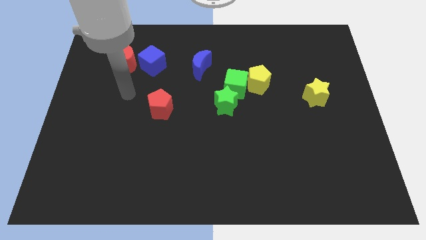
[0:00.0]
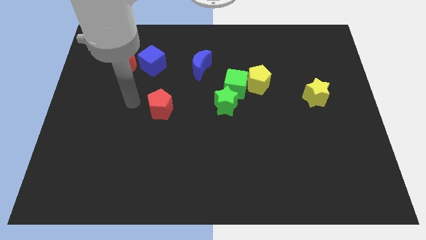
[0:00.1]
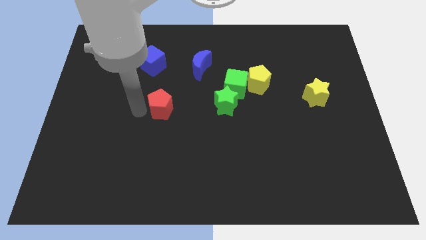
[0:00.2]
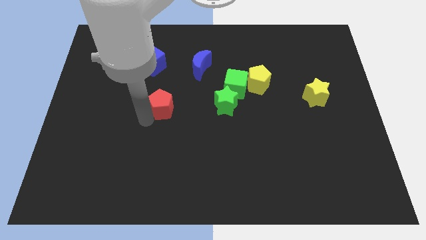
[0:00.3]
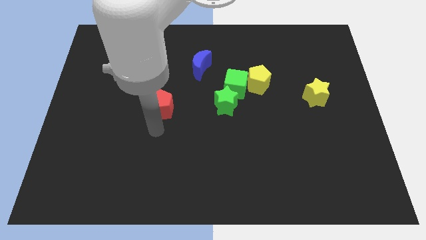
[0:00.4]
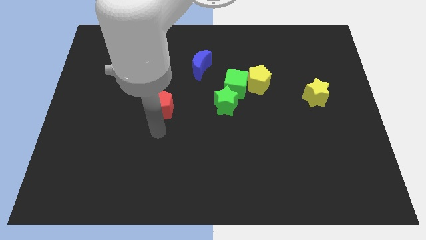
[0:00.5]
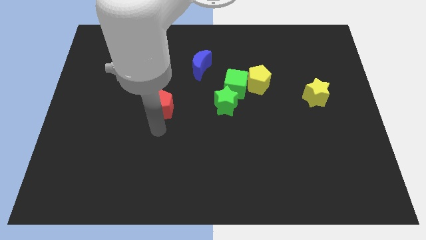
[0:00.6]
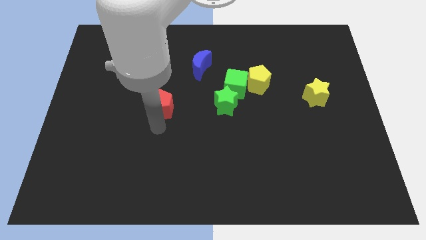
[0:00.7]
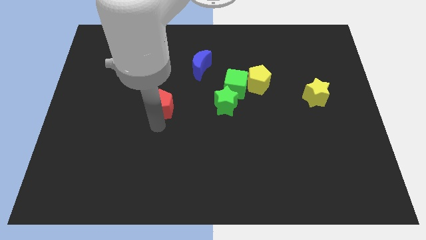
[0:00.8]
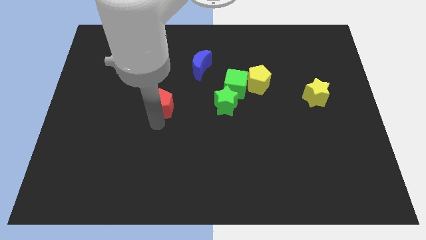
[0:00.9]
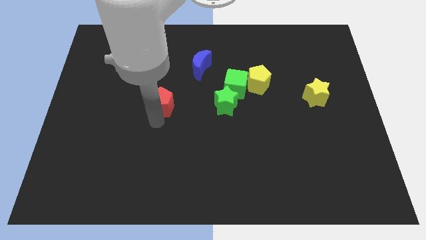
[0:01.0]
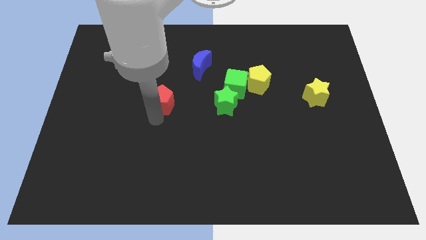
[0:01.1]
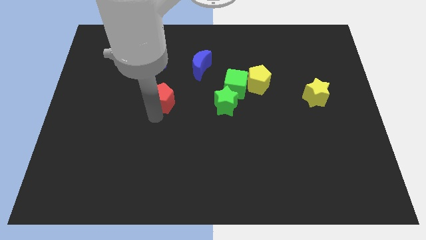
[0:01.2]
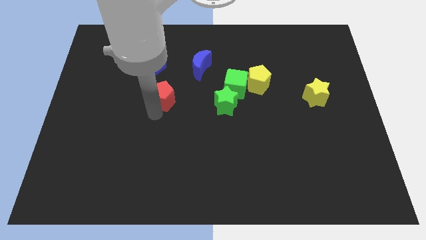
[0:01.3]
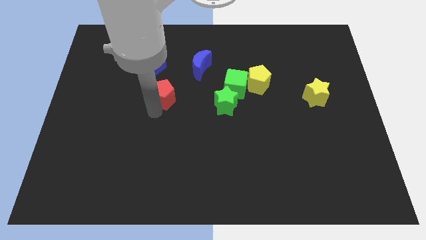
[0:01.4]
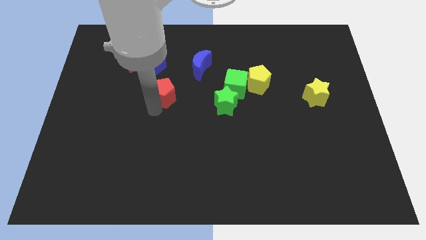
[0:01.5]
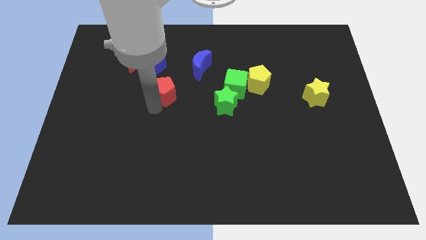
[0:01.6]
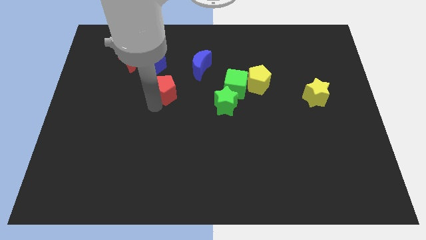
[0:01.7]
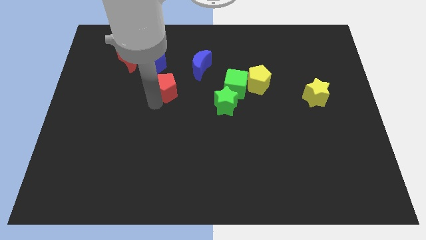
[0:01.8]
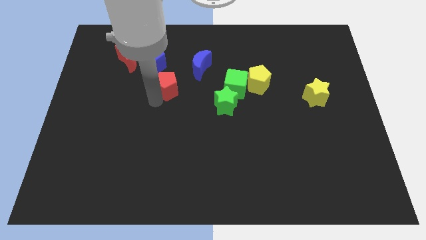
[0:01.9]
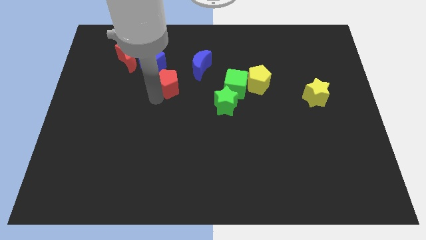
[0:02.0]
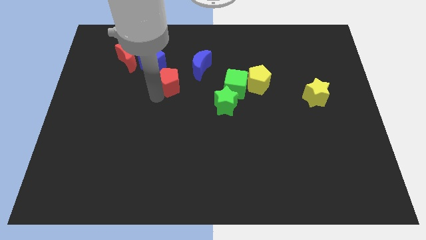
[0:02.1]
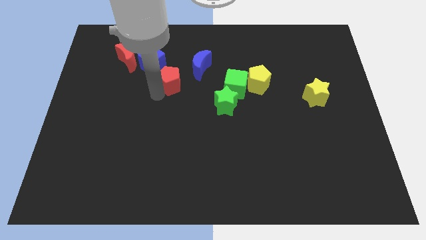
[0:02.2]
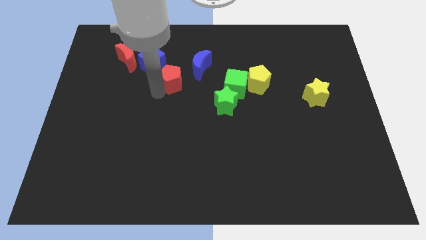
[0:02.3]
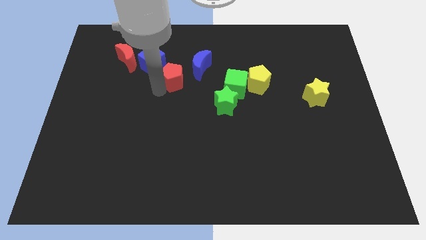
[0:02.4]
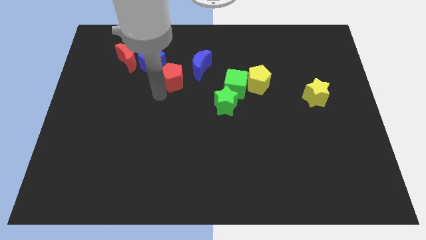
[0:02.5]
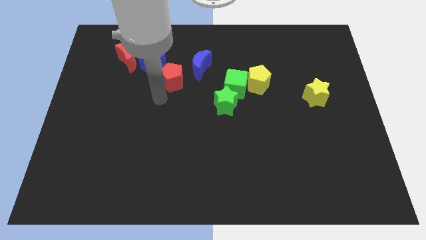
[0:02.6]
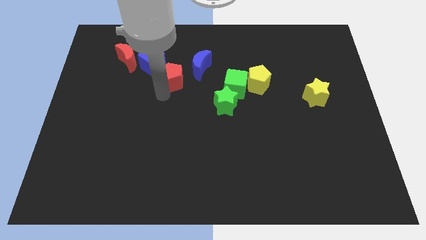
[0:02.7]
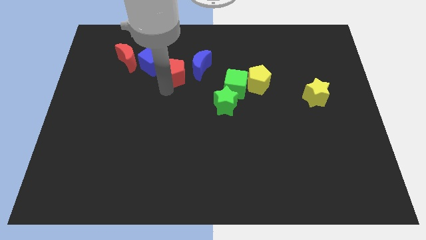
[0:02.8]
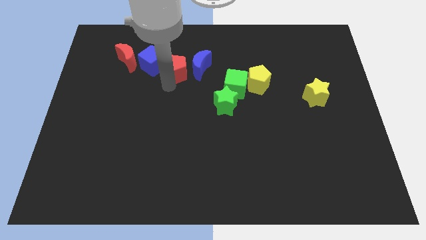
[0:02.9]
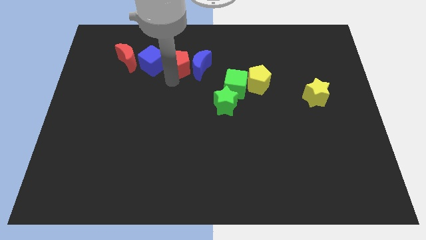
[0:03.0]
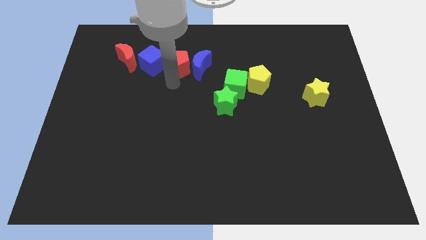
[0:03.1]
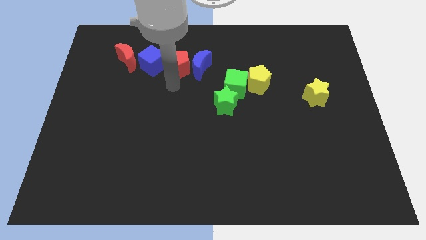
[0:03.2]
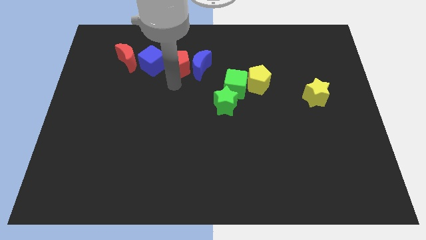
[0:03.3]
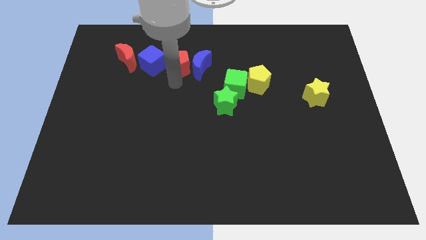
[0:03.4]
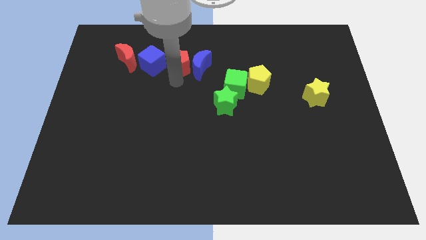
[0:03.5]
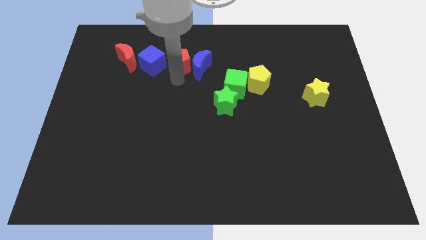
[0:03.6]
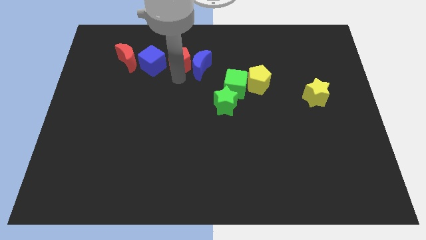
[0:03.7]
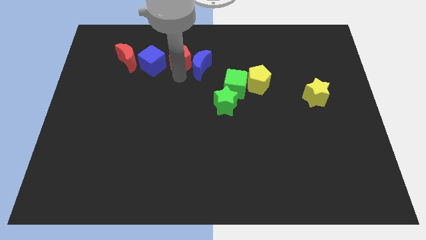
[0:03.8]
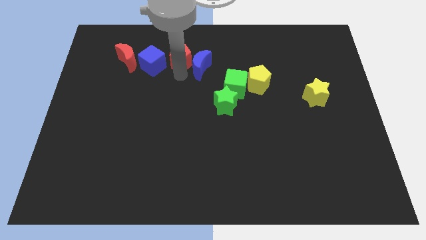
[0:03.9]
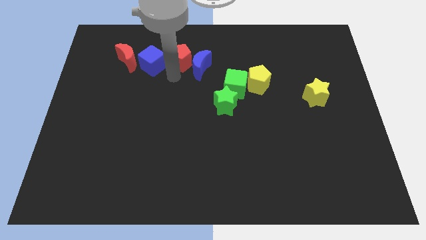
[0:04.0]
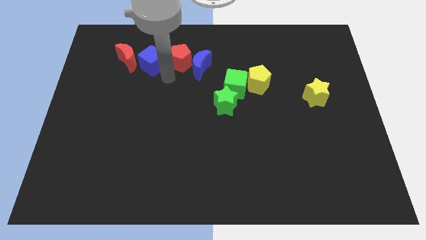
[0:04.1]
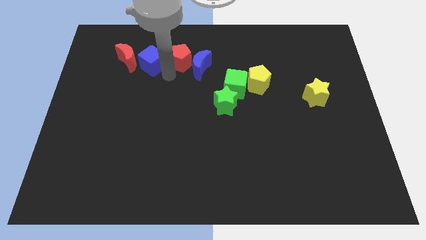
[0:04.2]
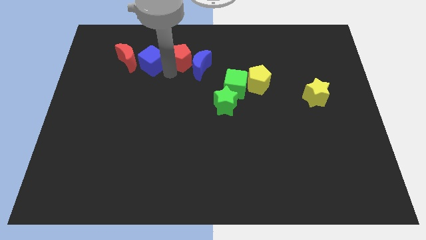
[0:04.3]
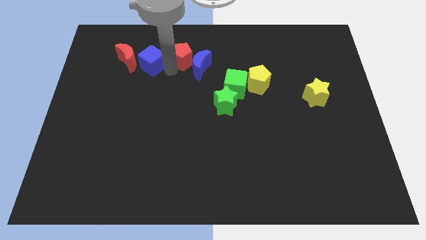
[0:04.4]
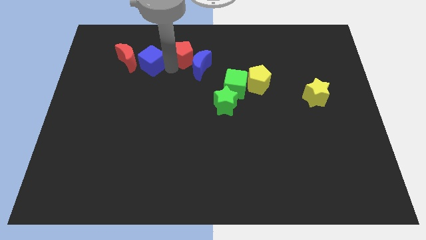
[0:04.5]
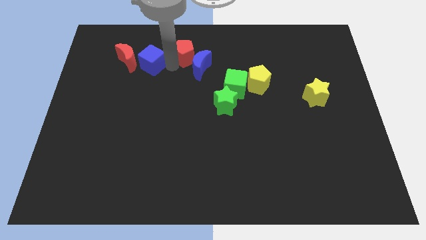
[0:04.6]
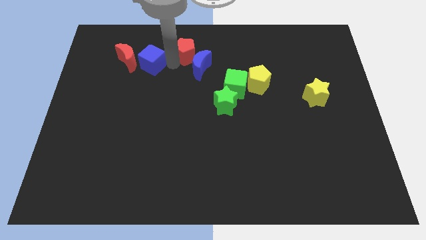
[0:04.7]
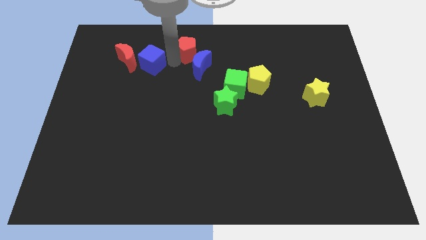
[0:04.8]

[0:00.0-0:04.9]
slide the red pentagon to the towards your base

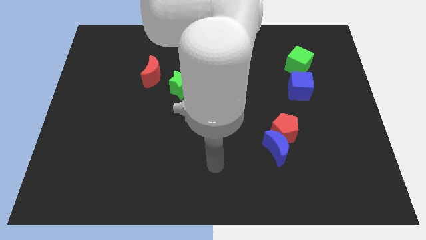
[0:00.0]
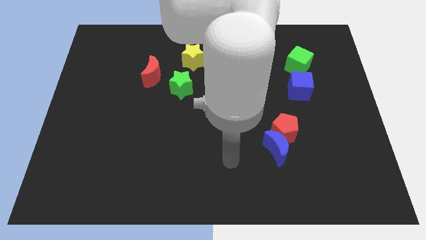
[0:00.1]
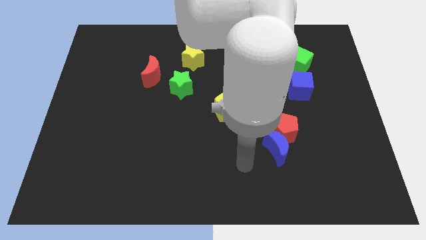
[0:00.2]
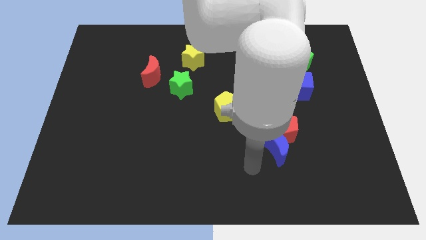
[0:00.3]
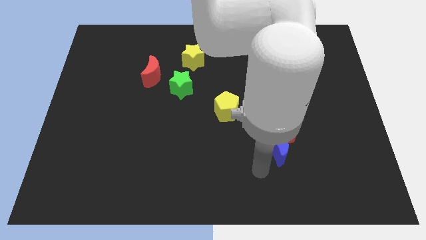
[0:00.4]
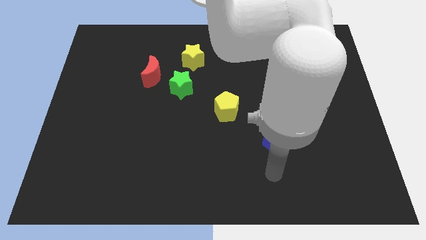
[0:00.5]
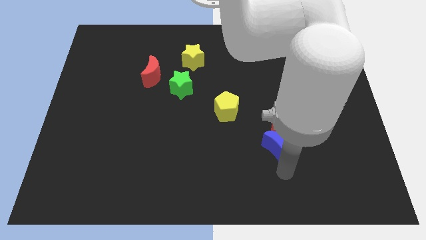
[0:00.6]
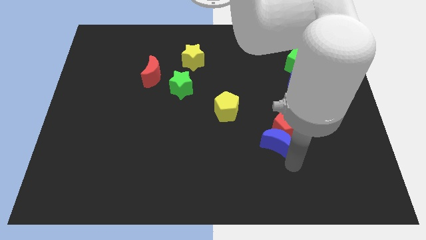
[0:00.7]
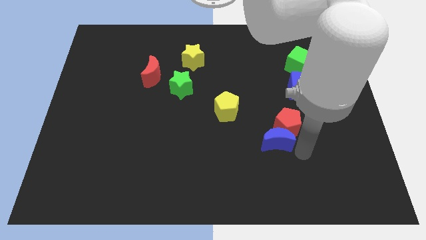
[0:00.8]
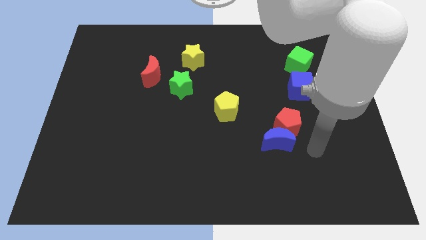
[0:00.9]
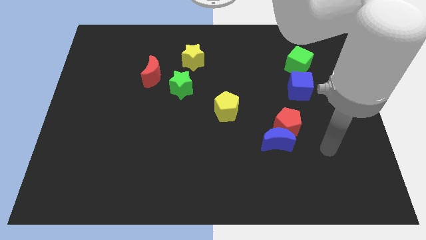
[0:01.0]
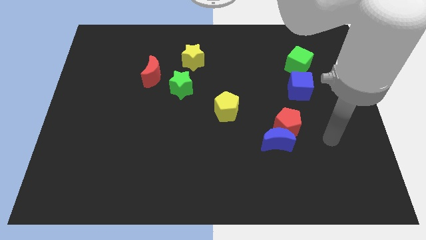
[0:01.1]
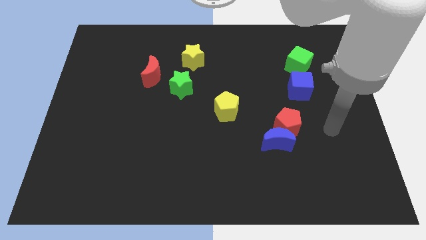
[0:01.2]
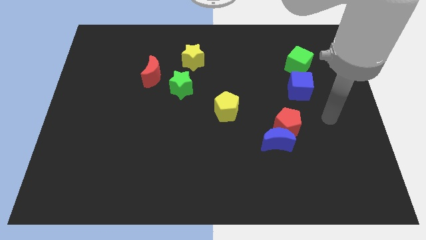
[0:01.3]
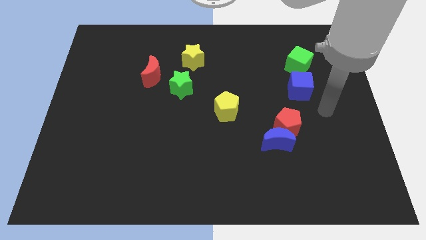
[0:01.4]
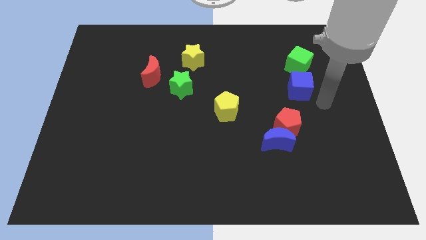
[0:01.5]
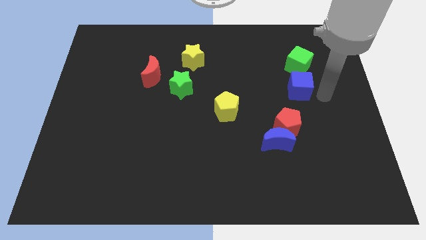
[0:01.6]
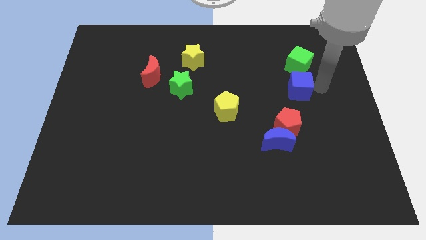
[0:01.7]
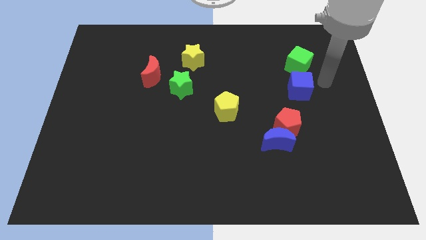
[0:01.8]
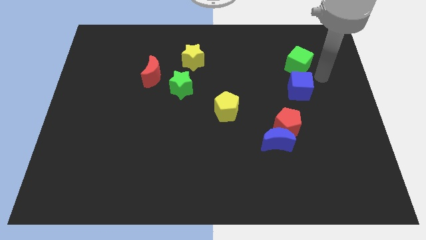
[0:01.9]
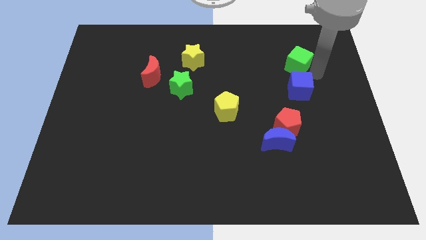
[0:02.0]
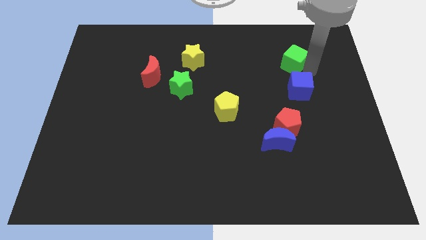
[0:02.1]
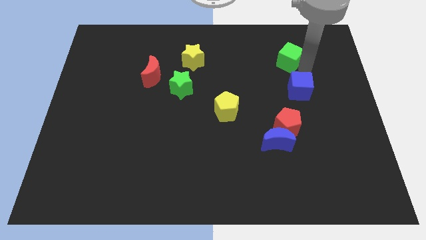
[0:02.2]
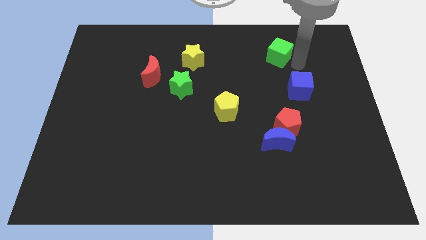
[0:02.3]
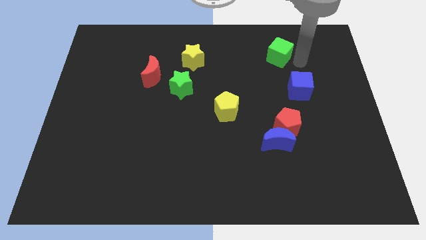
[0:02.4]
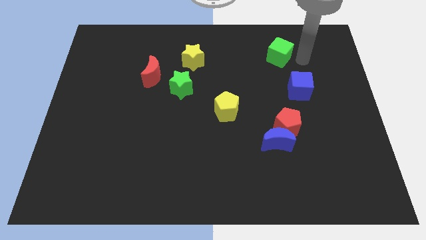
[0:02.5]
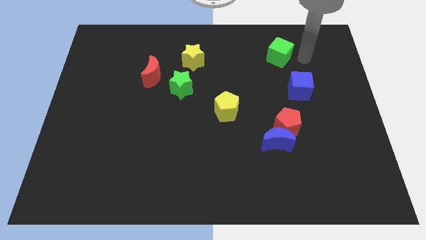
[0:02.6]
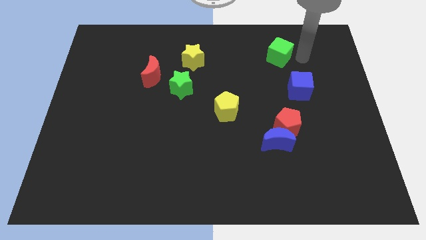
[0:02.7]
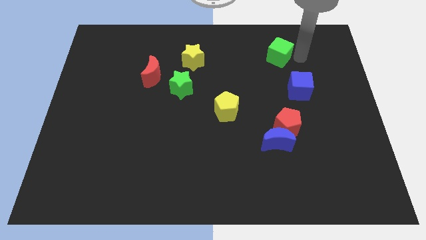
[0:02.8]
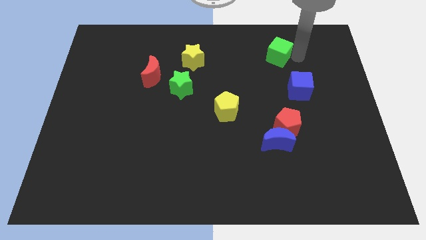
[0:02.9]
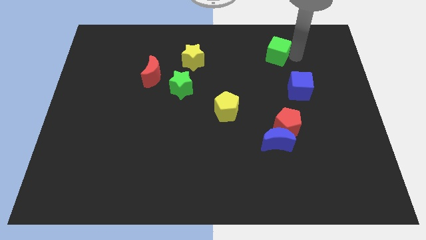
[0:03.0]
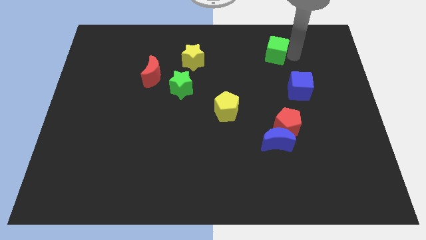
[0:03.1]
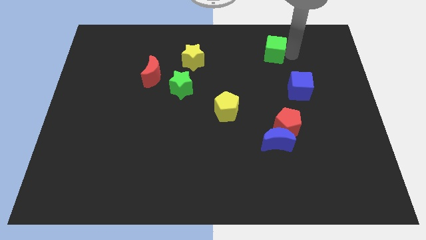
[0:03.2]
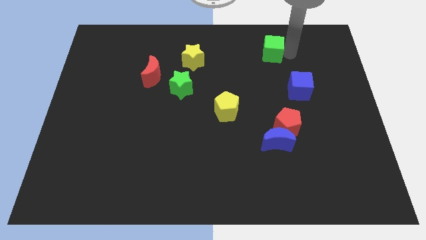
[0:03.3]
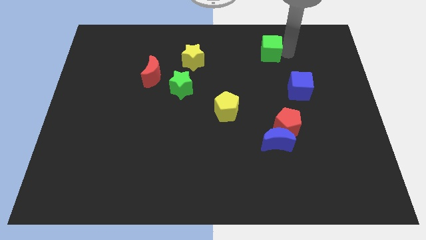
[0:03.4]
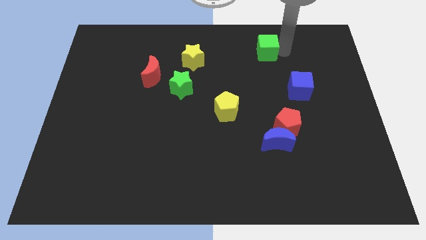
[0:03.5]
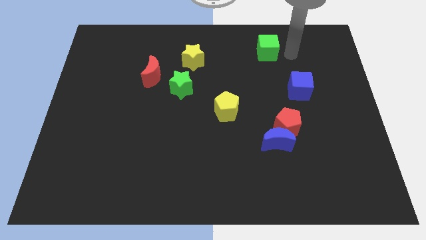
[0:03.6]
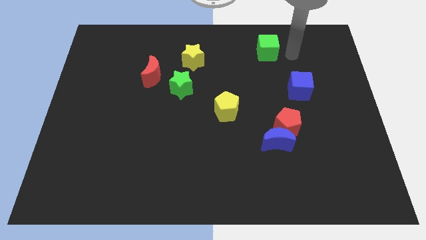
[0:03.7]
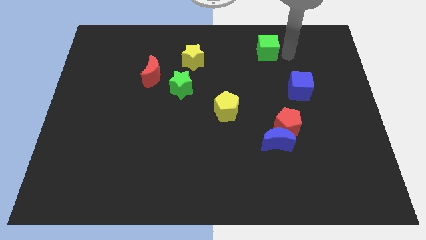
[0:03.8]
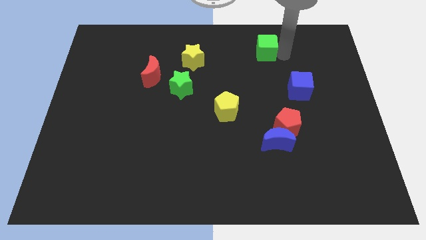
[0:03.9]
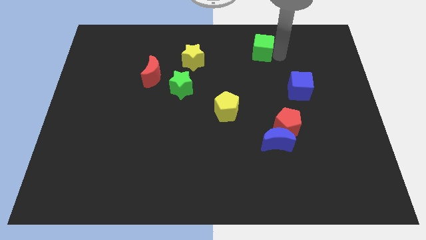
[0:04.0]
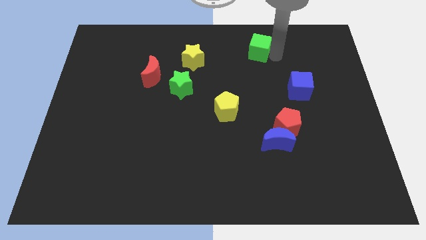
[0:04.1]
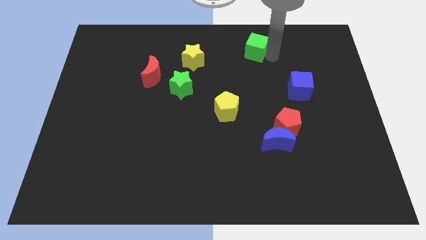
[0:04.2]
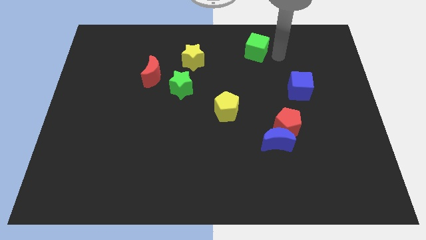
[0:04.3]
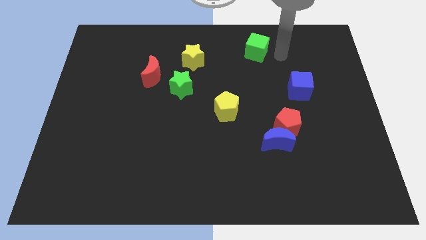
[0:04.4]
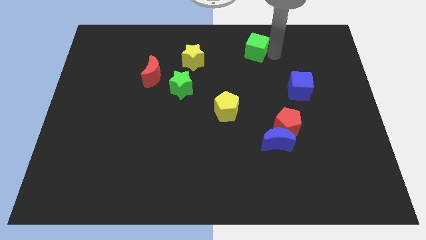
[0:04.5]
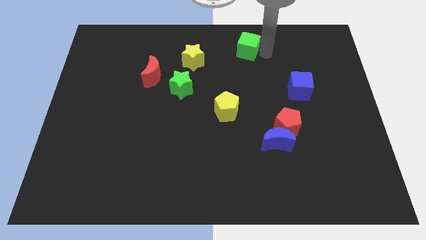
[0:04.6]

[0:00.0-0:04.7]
move the green cube to the top side
